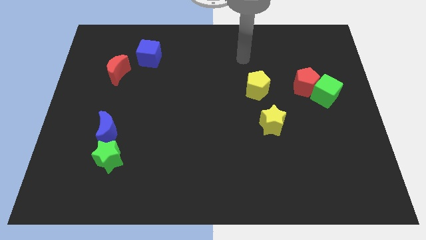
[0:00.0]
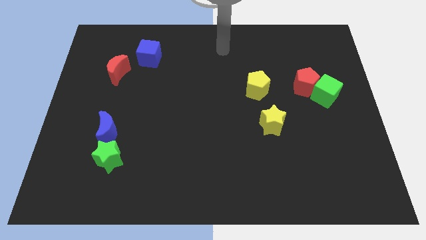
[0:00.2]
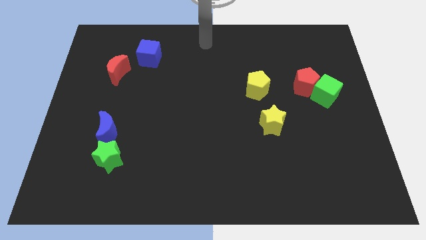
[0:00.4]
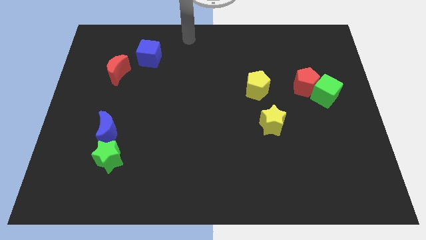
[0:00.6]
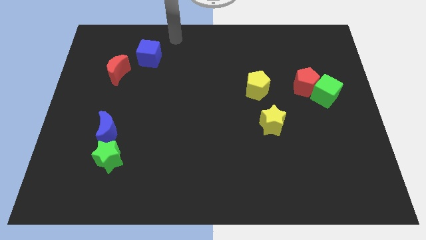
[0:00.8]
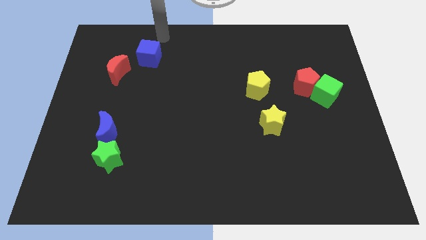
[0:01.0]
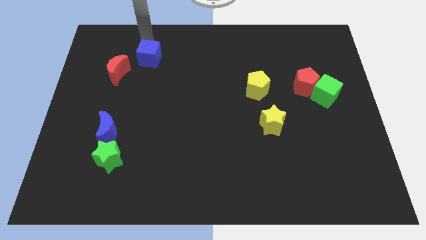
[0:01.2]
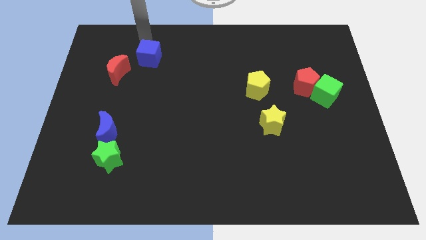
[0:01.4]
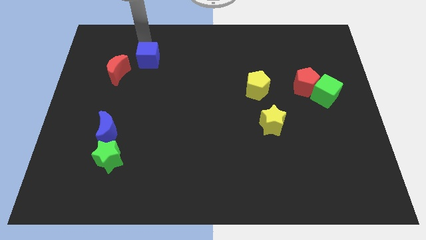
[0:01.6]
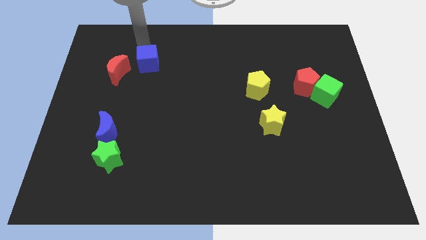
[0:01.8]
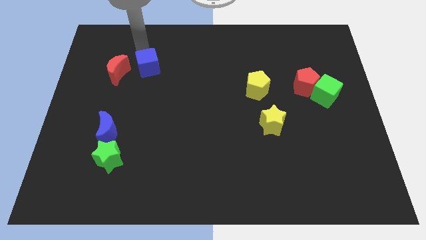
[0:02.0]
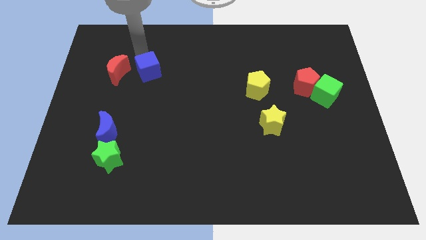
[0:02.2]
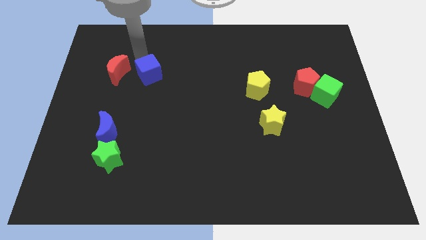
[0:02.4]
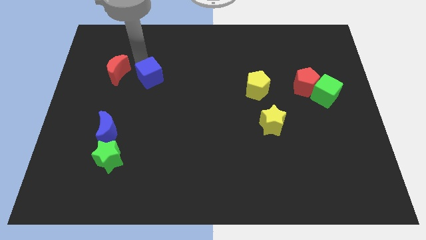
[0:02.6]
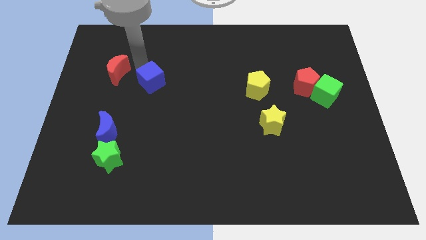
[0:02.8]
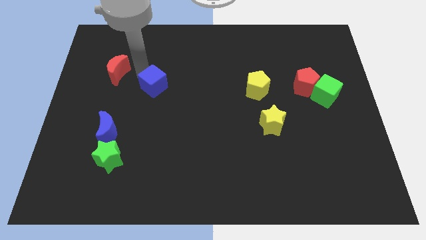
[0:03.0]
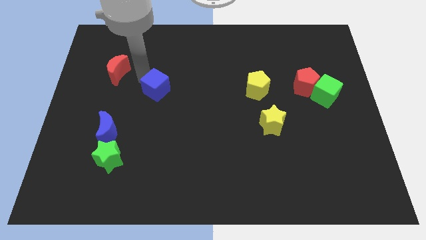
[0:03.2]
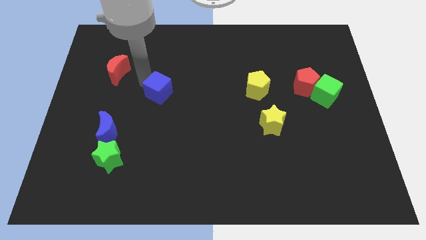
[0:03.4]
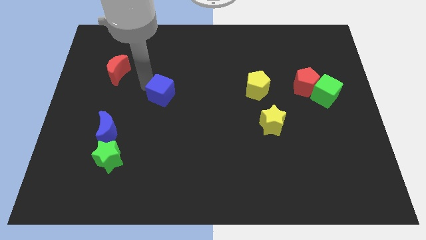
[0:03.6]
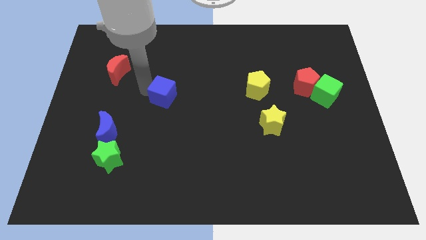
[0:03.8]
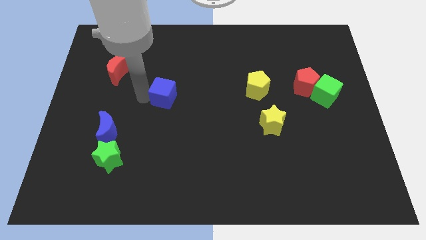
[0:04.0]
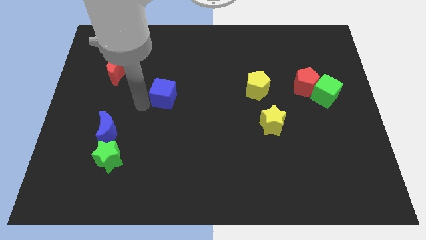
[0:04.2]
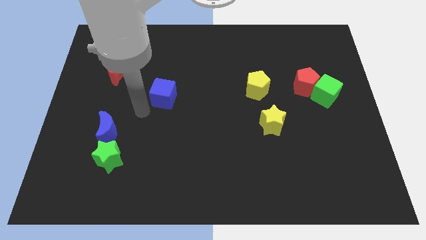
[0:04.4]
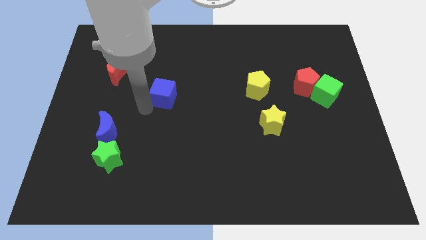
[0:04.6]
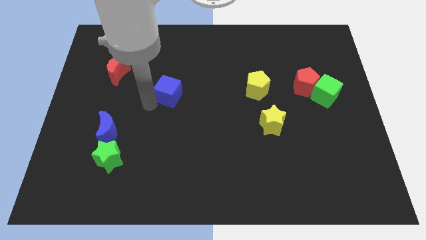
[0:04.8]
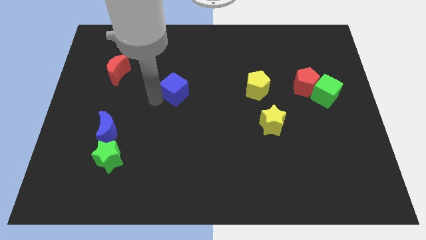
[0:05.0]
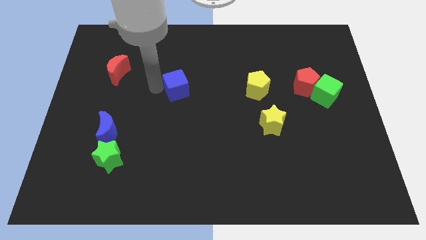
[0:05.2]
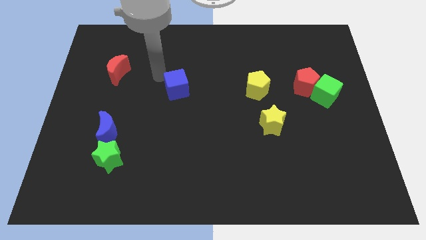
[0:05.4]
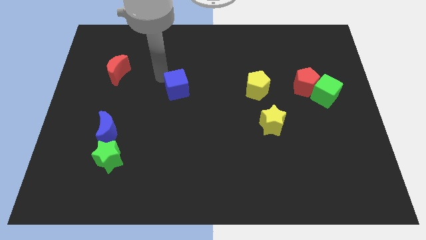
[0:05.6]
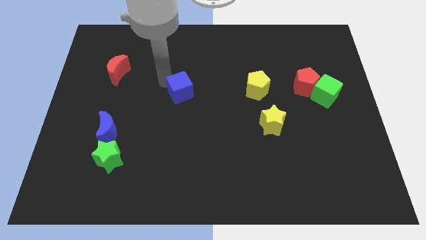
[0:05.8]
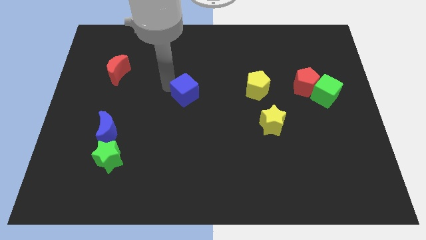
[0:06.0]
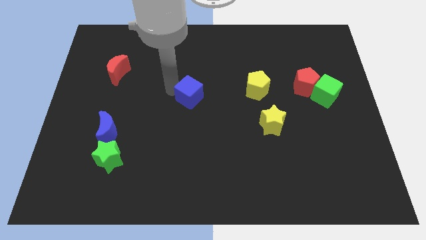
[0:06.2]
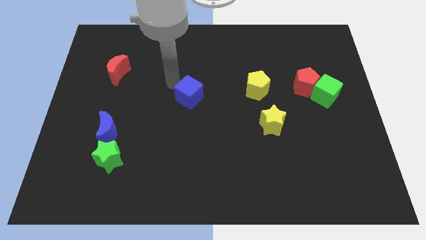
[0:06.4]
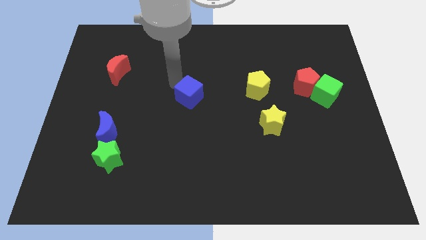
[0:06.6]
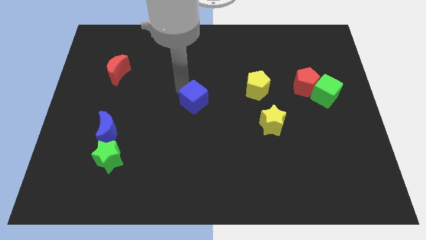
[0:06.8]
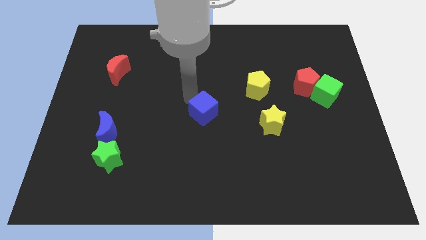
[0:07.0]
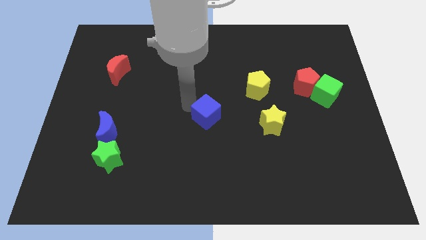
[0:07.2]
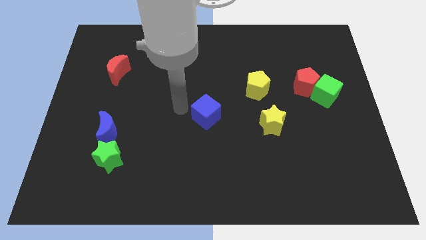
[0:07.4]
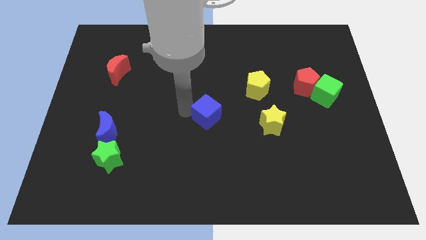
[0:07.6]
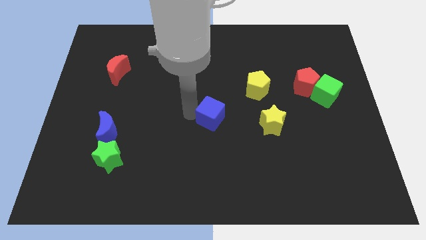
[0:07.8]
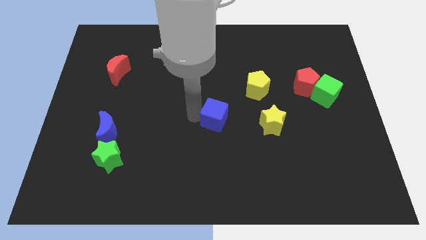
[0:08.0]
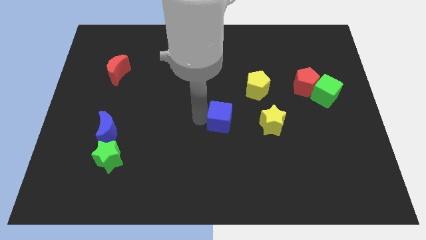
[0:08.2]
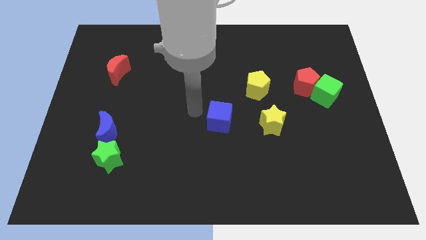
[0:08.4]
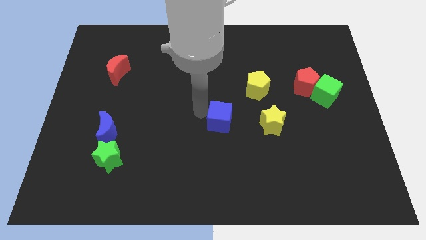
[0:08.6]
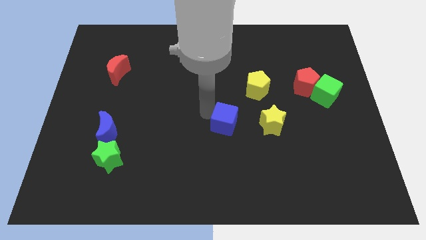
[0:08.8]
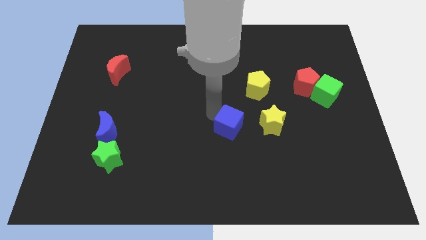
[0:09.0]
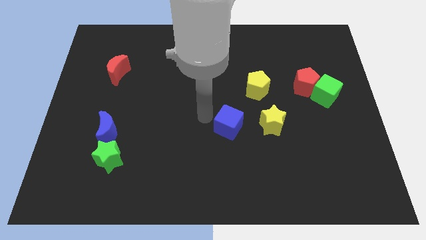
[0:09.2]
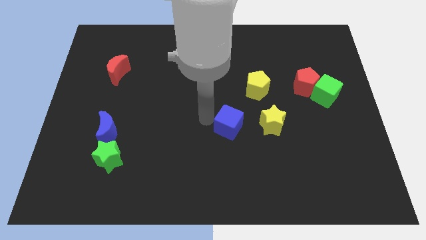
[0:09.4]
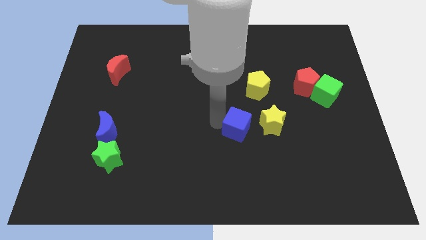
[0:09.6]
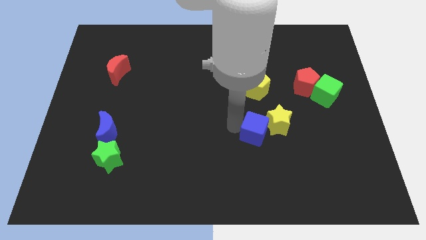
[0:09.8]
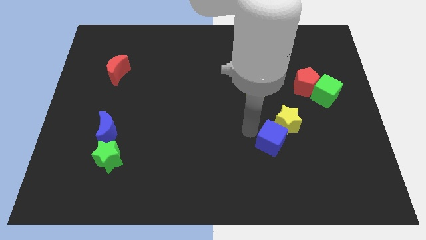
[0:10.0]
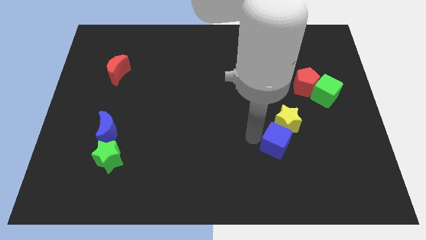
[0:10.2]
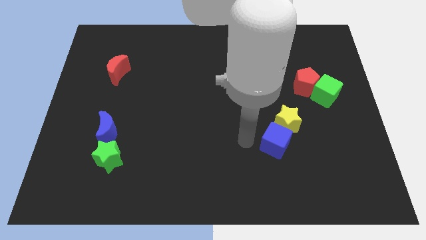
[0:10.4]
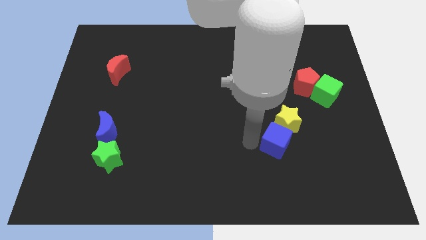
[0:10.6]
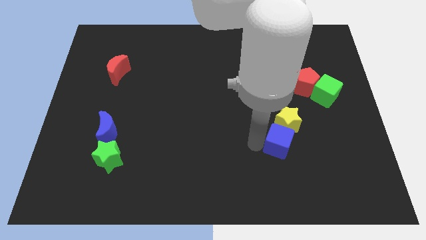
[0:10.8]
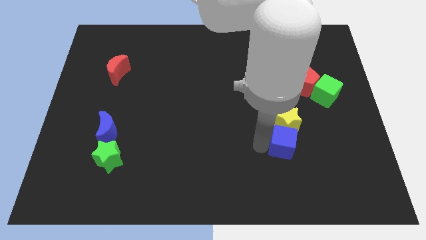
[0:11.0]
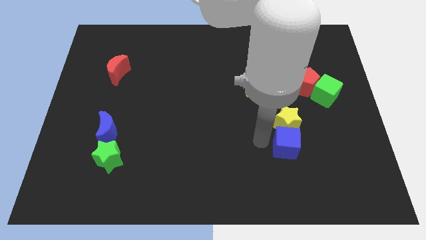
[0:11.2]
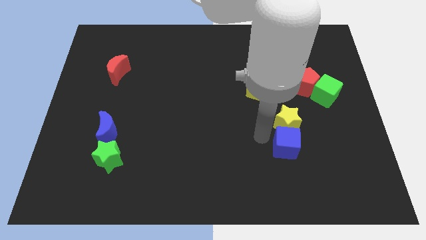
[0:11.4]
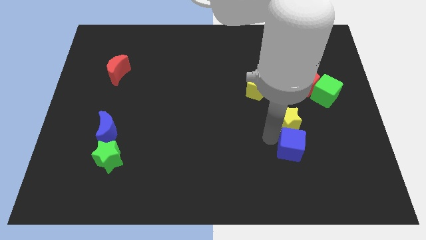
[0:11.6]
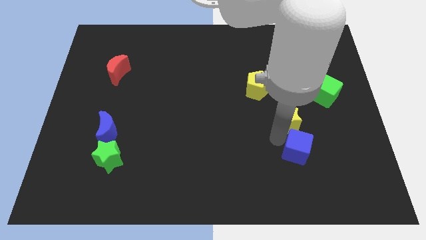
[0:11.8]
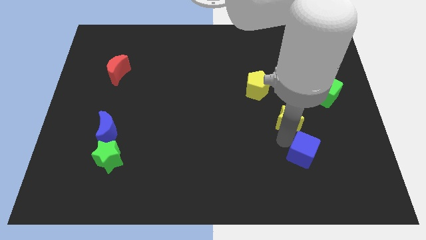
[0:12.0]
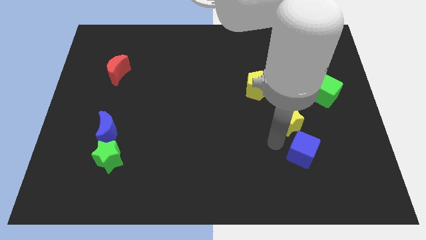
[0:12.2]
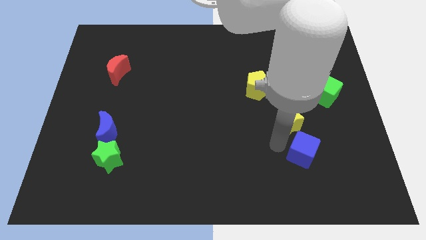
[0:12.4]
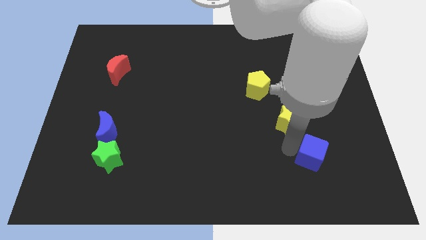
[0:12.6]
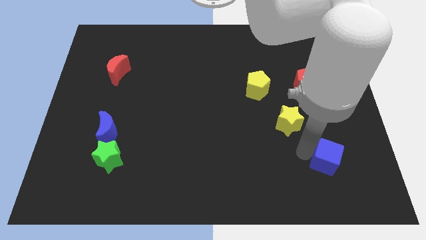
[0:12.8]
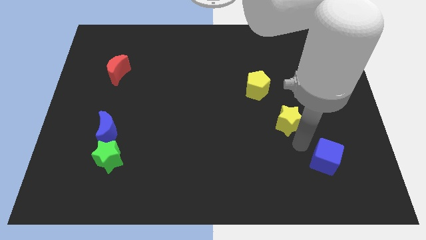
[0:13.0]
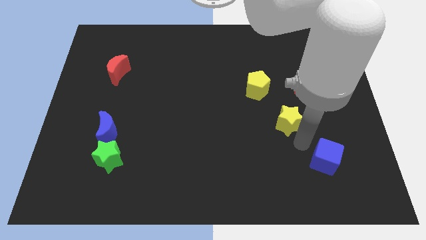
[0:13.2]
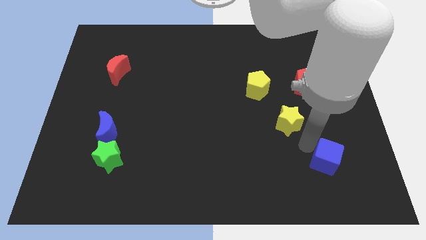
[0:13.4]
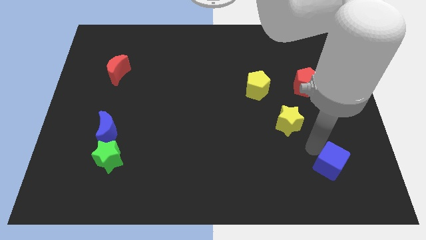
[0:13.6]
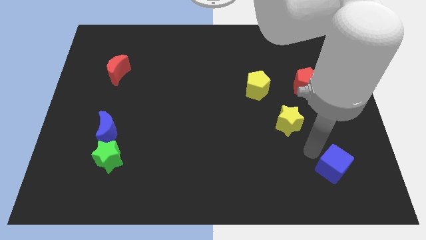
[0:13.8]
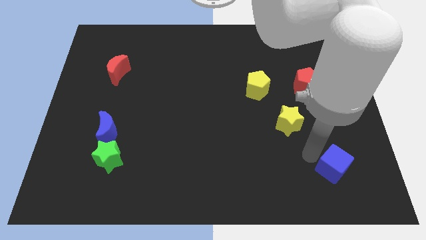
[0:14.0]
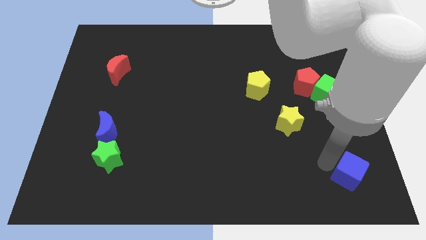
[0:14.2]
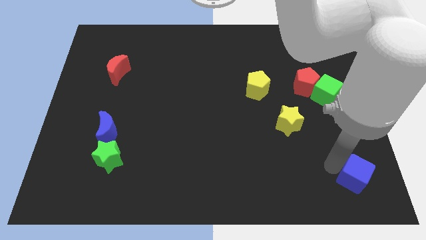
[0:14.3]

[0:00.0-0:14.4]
put the blue cube to the bottom right of the board
